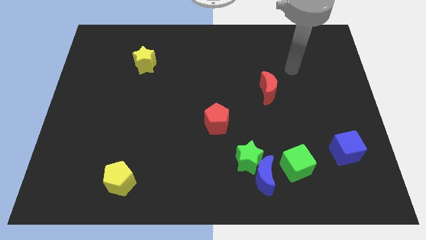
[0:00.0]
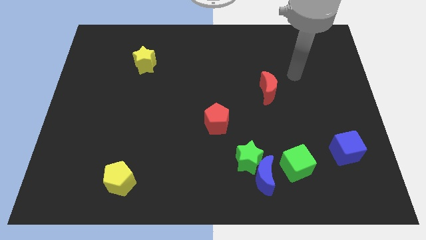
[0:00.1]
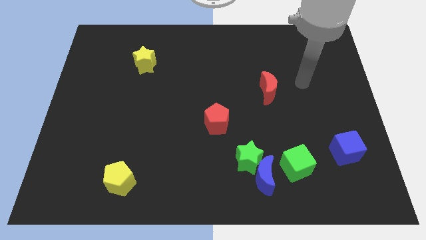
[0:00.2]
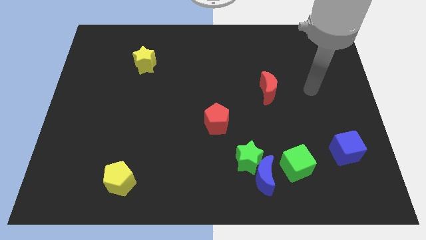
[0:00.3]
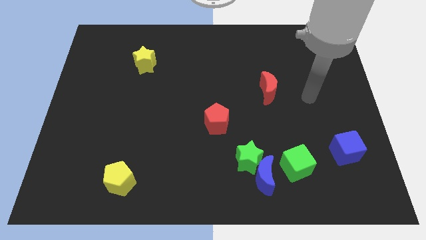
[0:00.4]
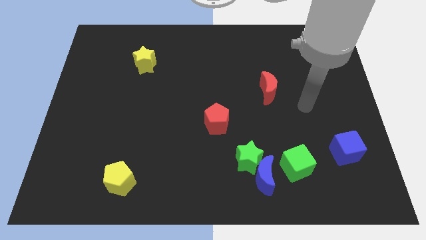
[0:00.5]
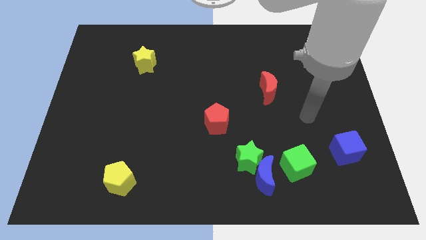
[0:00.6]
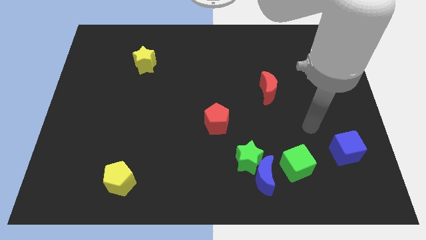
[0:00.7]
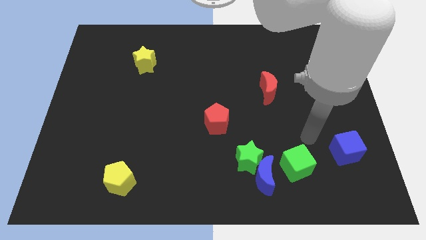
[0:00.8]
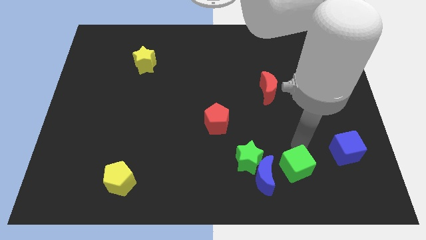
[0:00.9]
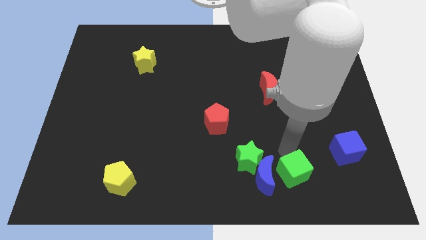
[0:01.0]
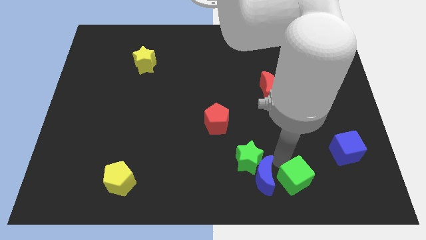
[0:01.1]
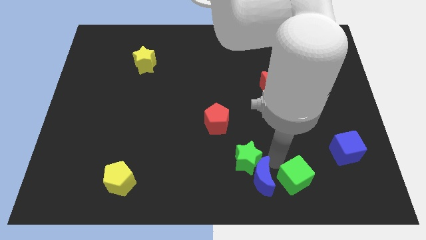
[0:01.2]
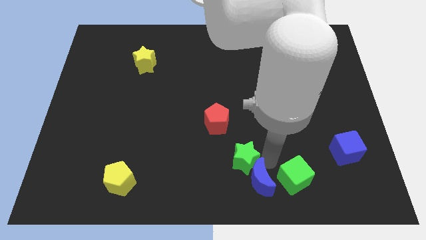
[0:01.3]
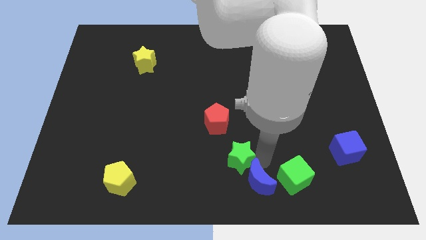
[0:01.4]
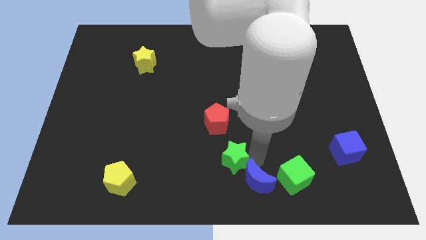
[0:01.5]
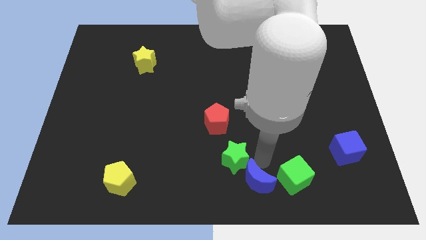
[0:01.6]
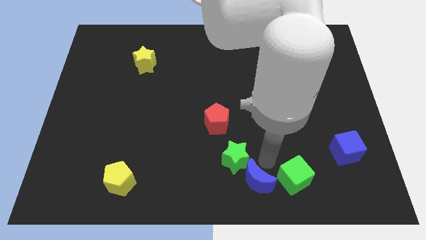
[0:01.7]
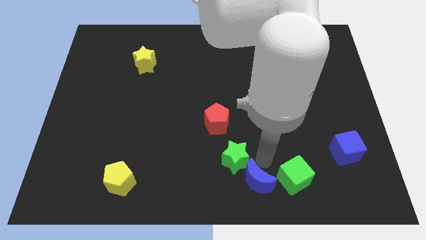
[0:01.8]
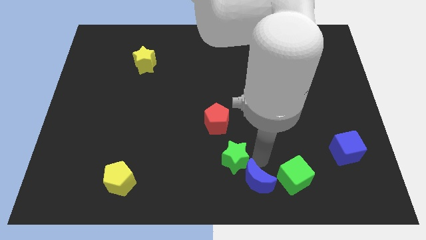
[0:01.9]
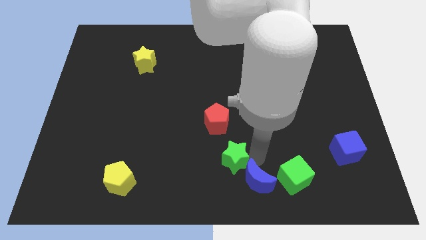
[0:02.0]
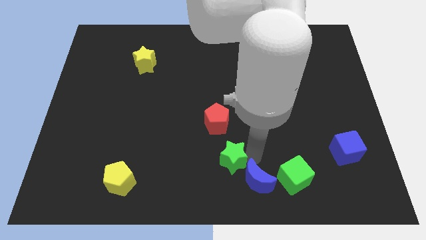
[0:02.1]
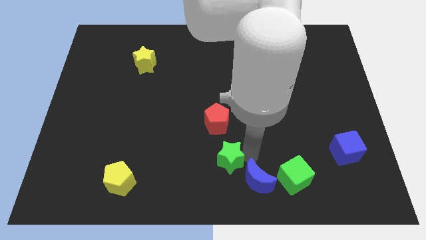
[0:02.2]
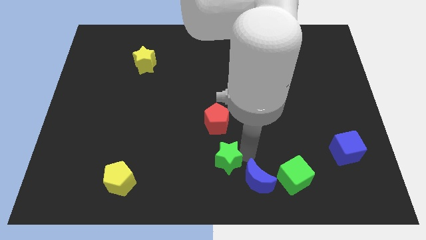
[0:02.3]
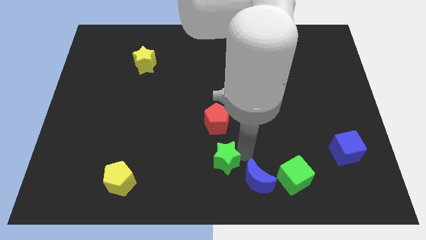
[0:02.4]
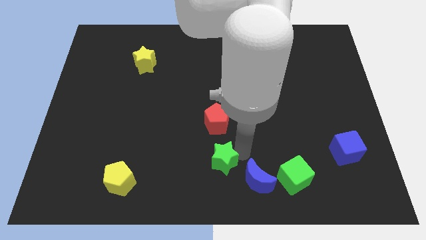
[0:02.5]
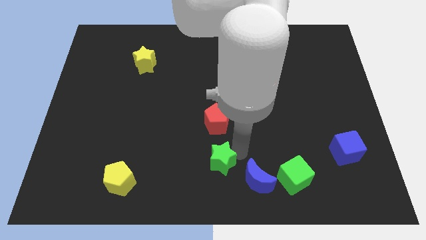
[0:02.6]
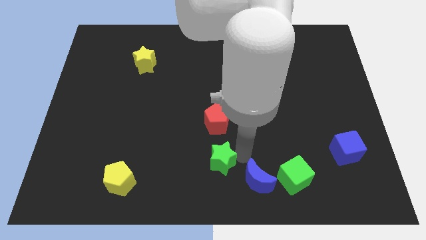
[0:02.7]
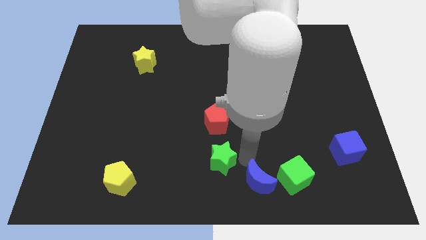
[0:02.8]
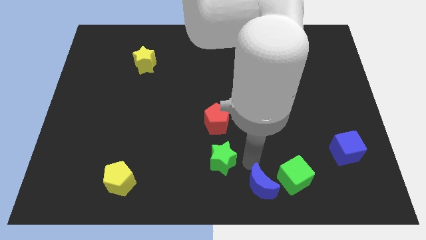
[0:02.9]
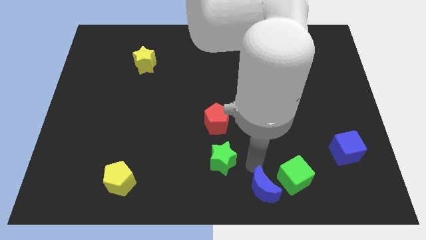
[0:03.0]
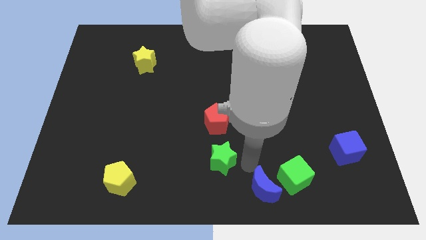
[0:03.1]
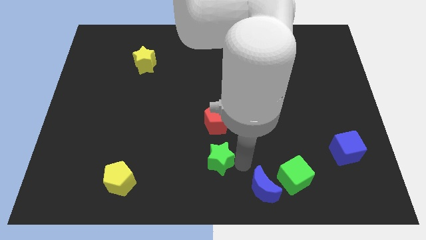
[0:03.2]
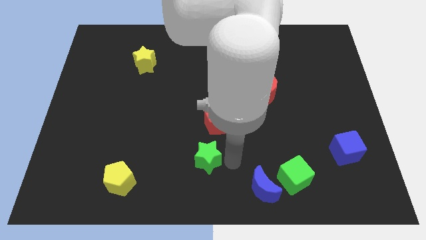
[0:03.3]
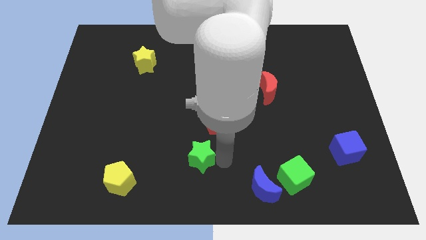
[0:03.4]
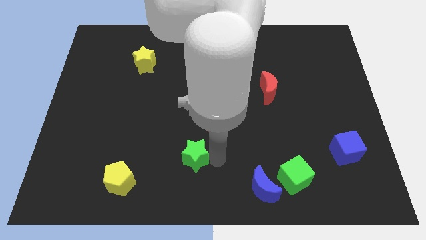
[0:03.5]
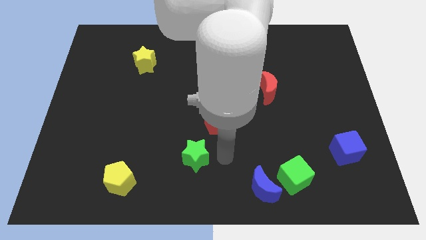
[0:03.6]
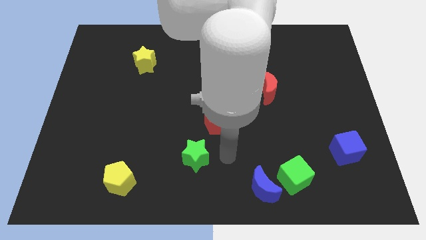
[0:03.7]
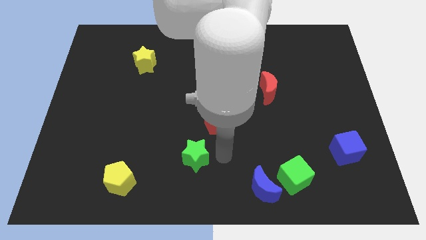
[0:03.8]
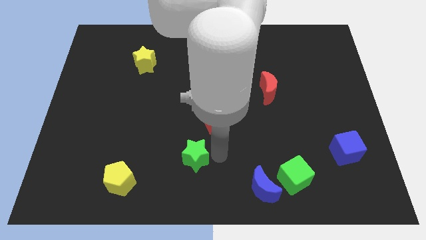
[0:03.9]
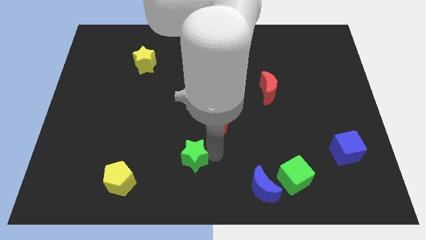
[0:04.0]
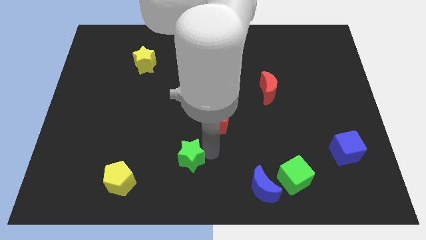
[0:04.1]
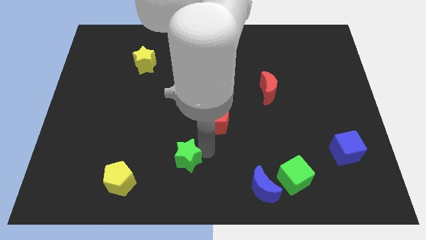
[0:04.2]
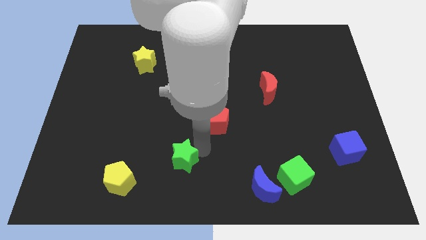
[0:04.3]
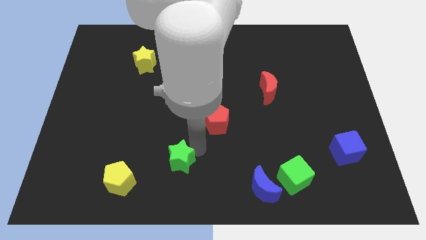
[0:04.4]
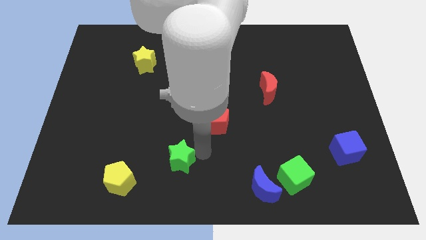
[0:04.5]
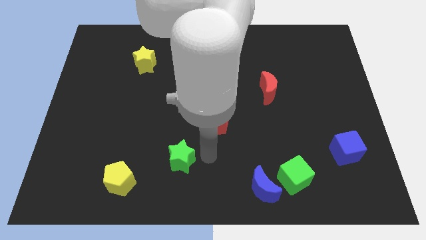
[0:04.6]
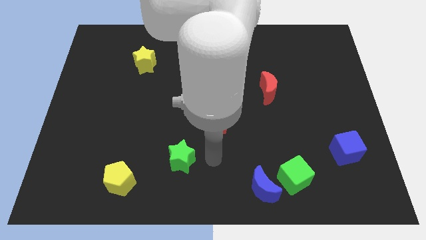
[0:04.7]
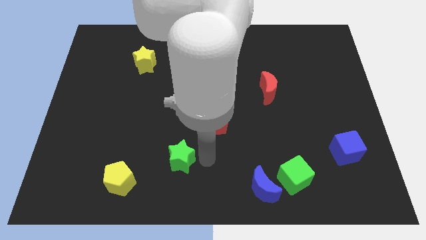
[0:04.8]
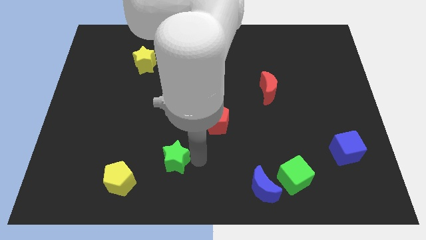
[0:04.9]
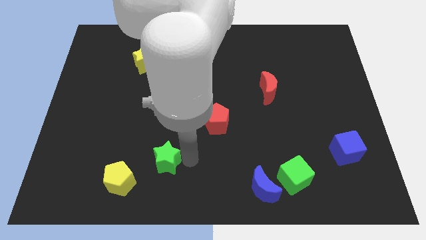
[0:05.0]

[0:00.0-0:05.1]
move the green star to the top right of the yellow pentagon

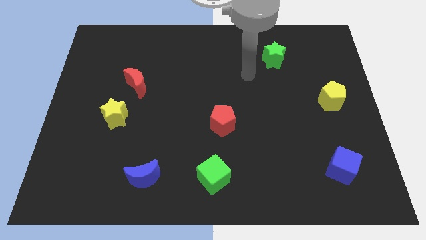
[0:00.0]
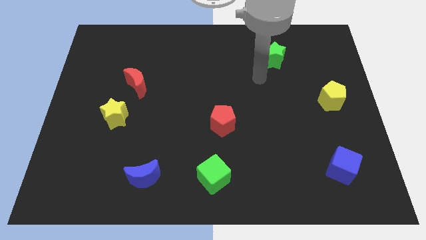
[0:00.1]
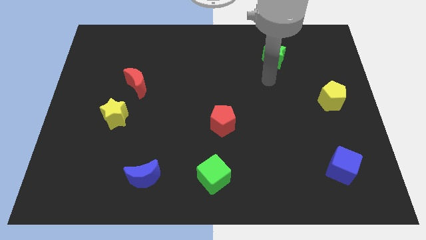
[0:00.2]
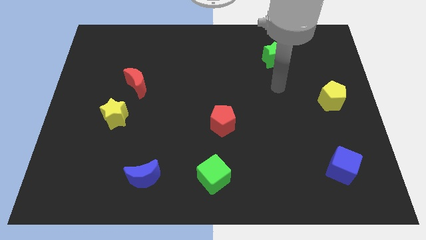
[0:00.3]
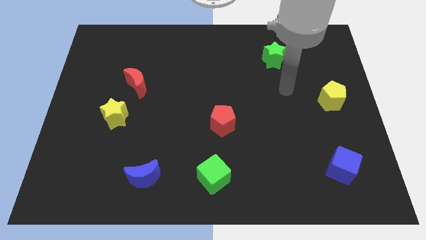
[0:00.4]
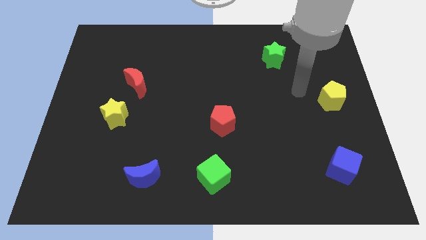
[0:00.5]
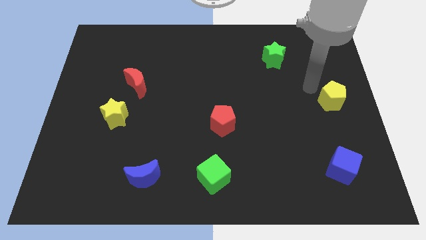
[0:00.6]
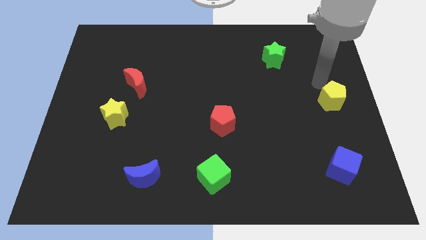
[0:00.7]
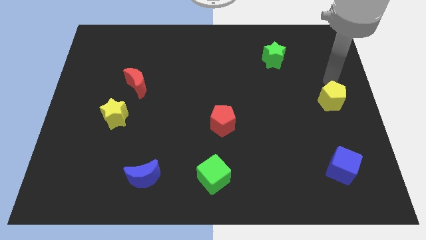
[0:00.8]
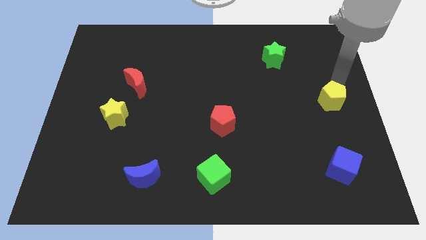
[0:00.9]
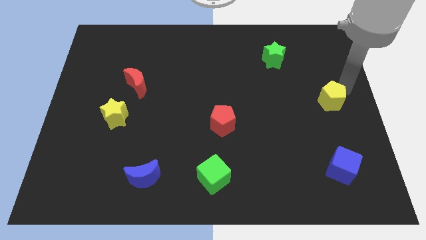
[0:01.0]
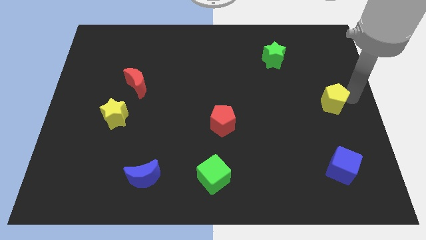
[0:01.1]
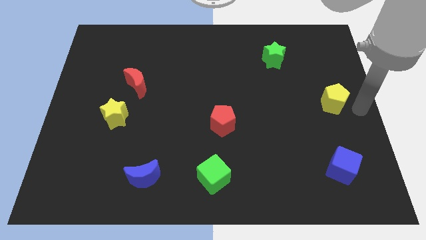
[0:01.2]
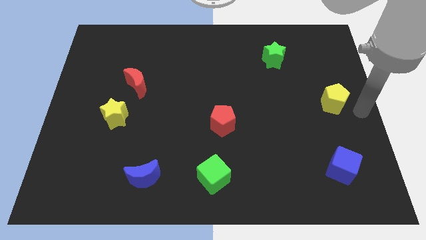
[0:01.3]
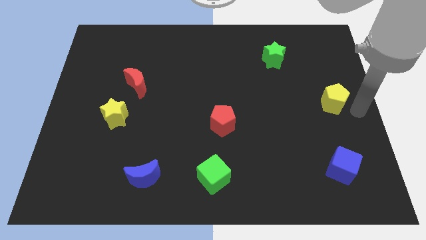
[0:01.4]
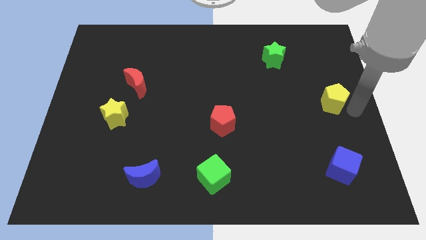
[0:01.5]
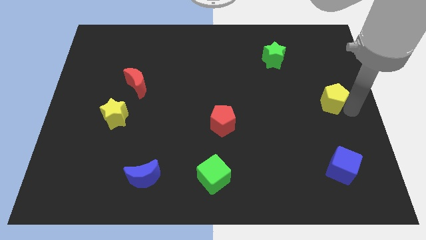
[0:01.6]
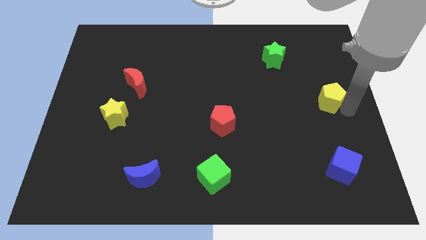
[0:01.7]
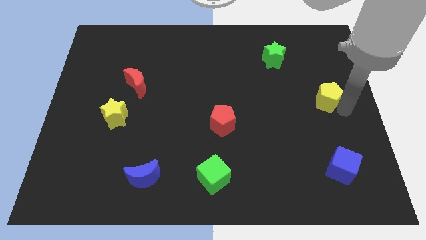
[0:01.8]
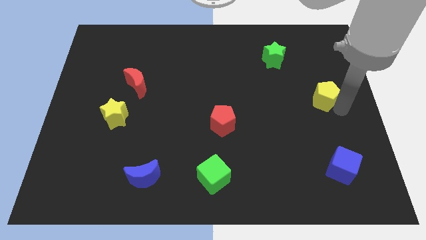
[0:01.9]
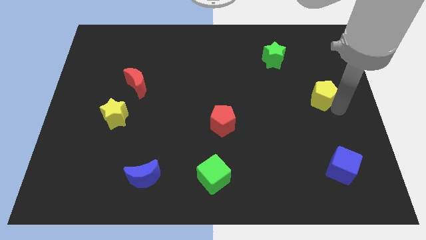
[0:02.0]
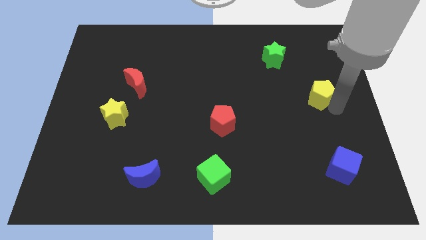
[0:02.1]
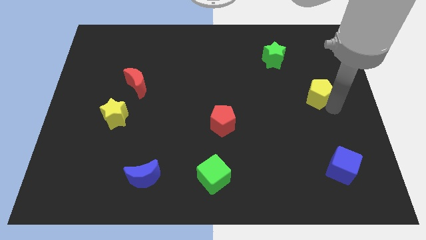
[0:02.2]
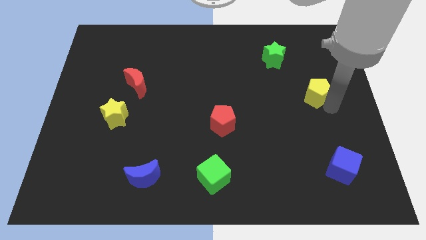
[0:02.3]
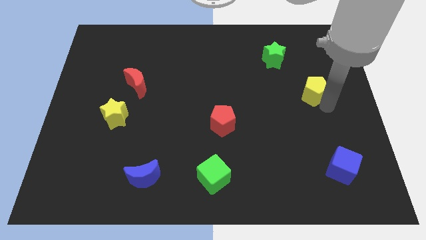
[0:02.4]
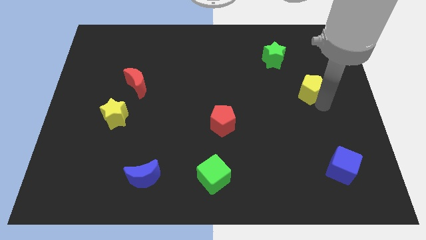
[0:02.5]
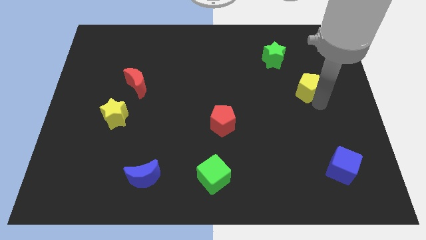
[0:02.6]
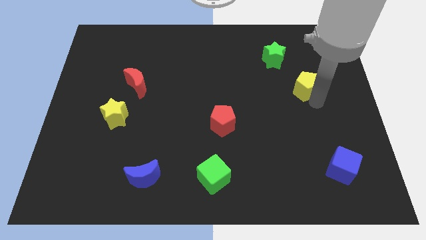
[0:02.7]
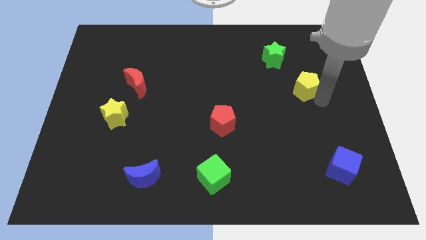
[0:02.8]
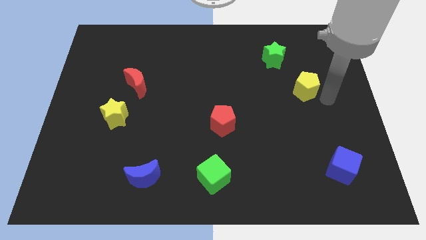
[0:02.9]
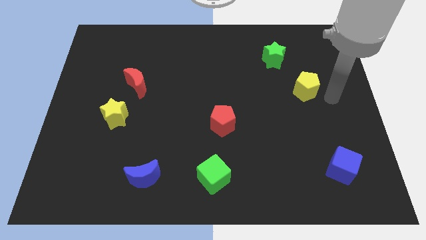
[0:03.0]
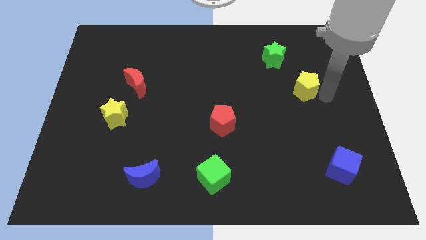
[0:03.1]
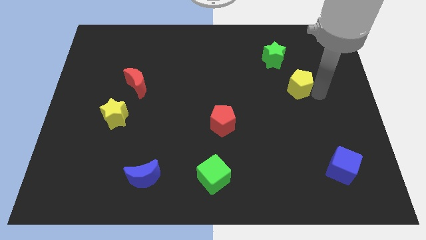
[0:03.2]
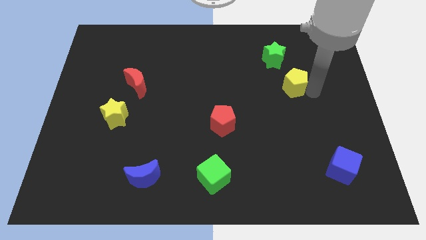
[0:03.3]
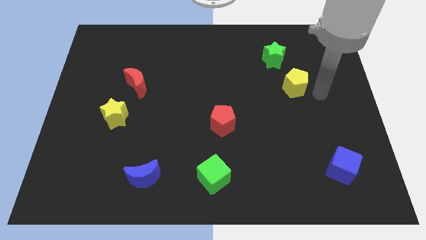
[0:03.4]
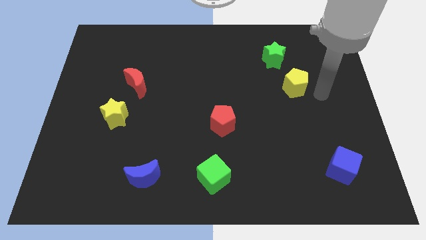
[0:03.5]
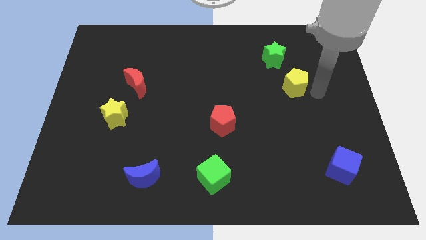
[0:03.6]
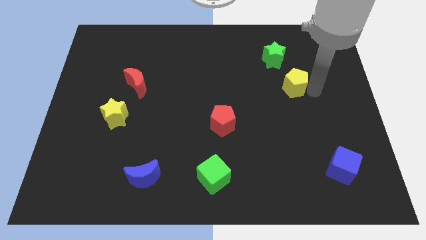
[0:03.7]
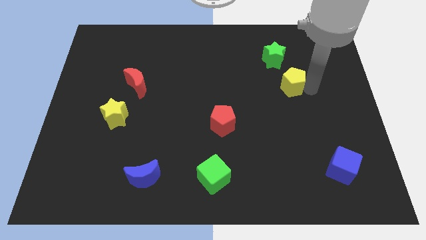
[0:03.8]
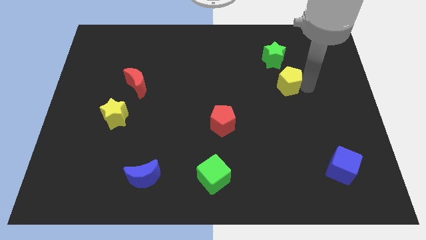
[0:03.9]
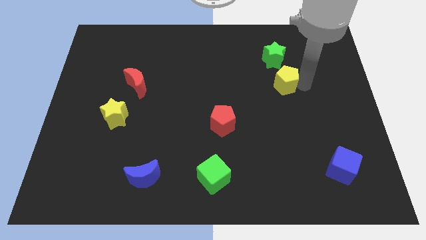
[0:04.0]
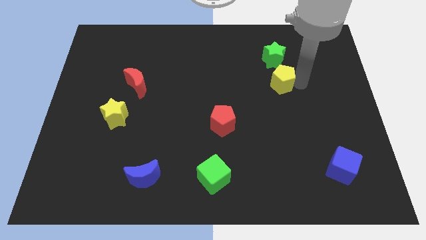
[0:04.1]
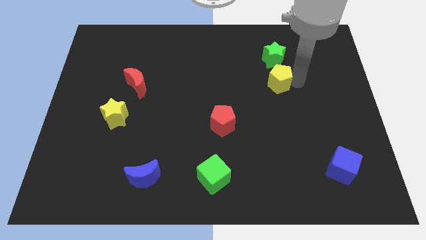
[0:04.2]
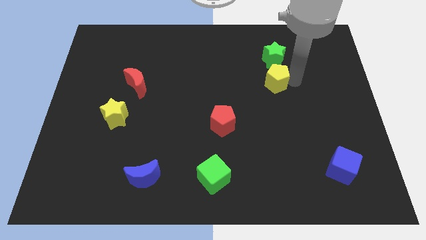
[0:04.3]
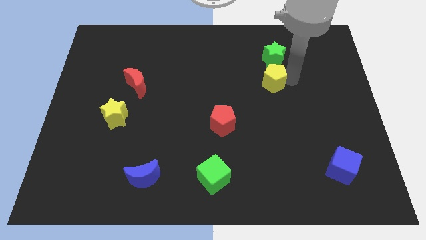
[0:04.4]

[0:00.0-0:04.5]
slide the yellow pentagon to the bottom left of the green star
